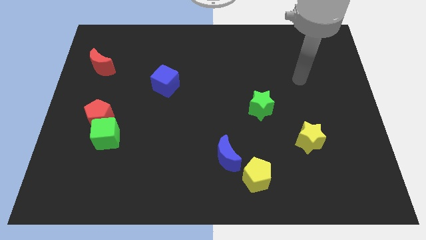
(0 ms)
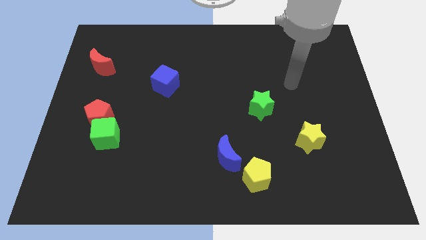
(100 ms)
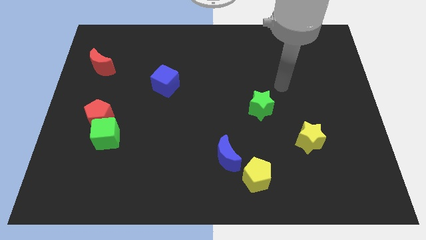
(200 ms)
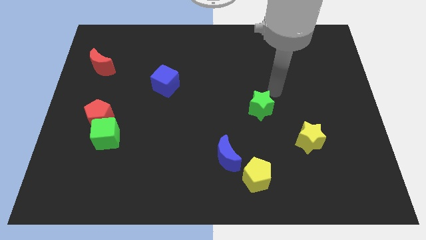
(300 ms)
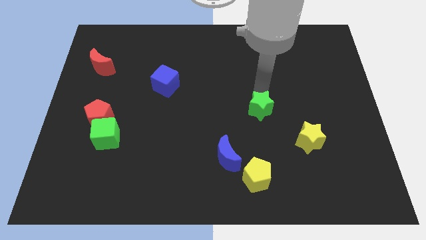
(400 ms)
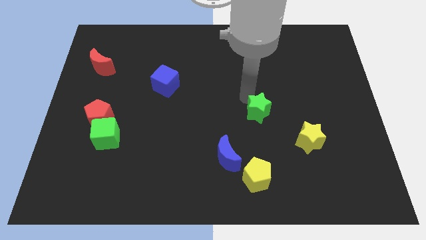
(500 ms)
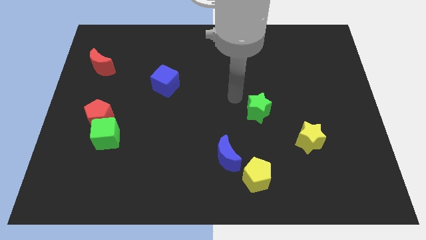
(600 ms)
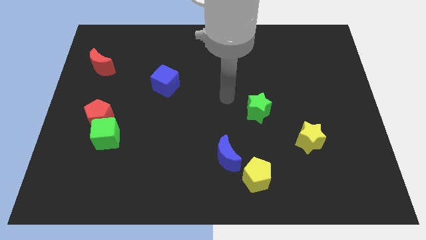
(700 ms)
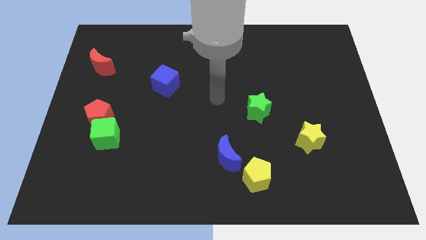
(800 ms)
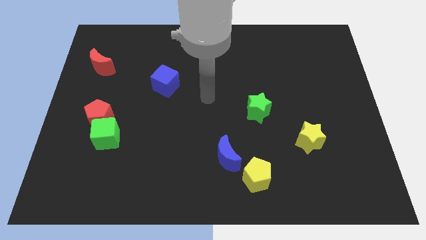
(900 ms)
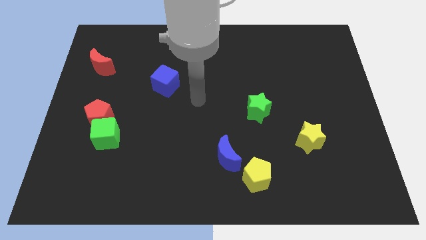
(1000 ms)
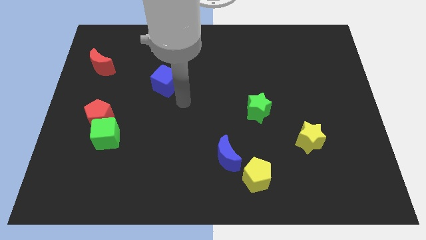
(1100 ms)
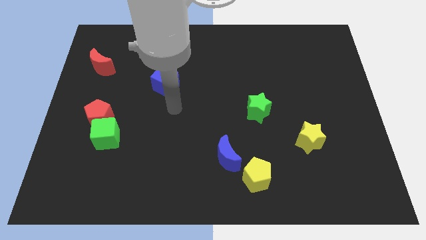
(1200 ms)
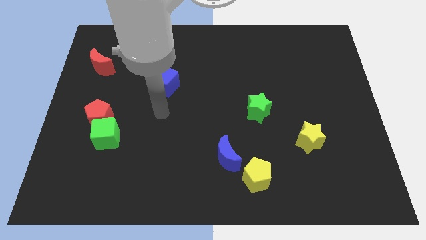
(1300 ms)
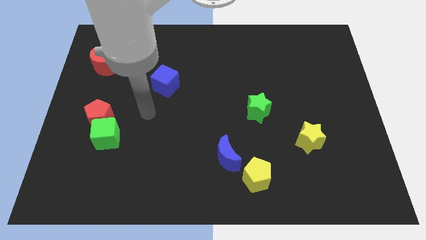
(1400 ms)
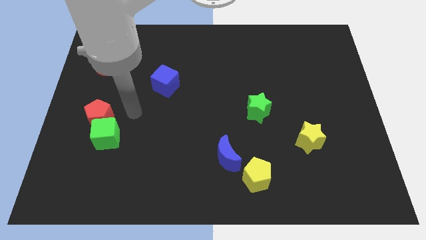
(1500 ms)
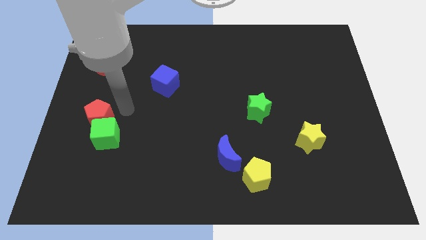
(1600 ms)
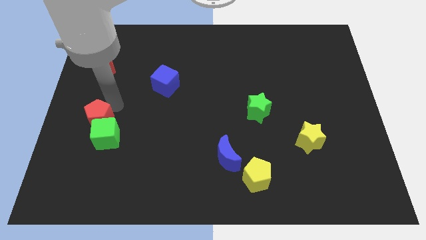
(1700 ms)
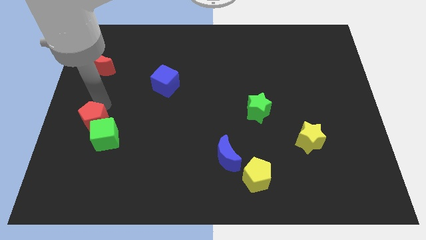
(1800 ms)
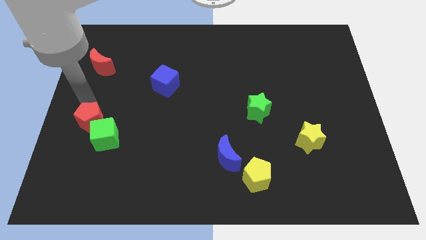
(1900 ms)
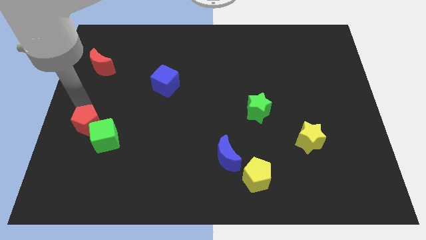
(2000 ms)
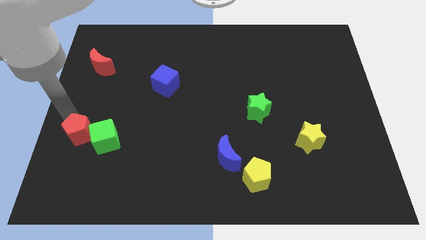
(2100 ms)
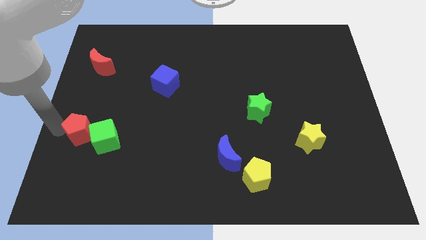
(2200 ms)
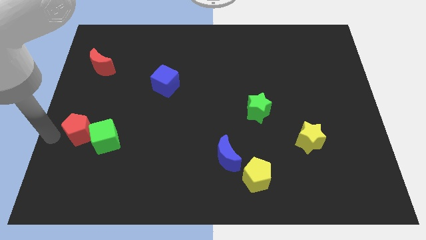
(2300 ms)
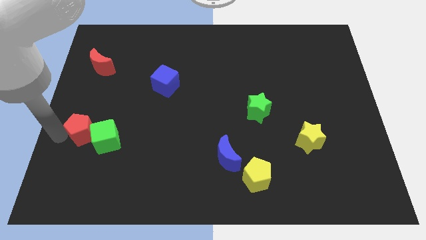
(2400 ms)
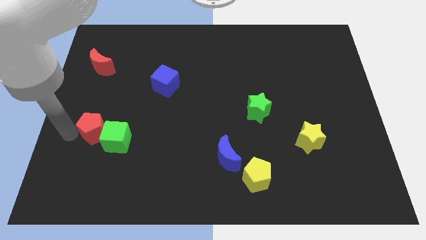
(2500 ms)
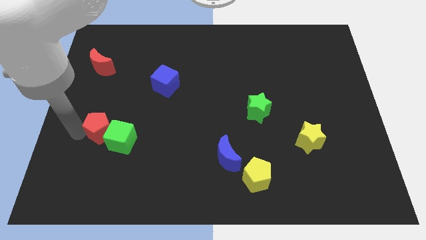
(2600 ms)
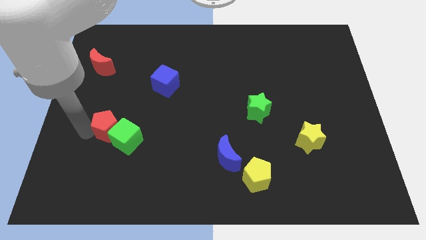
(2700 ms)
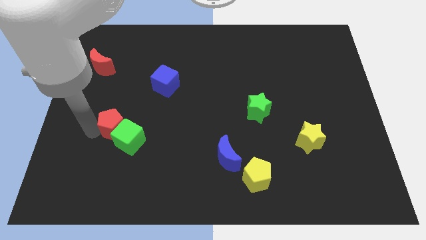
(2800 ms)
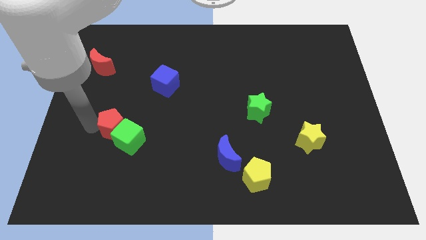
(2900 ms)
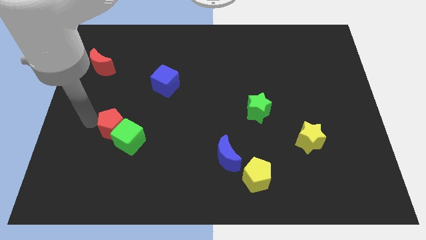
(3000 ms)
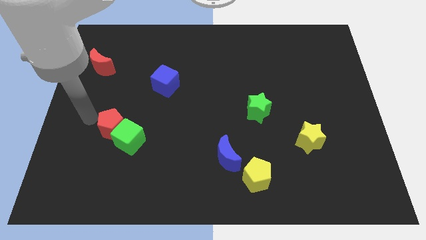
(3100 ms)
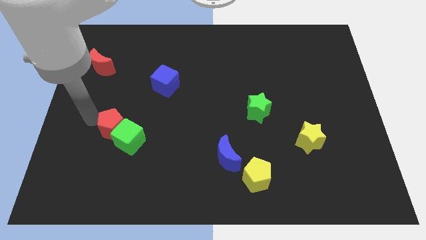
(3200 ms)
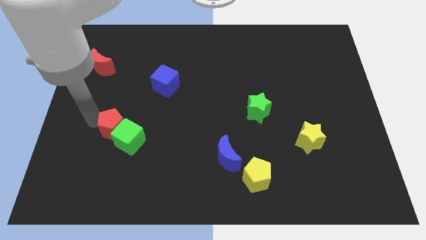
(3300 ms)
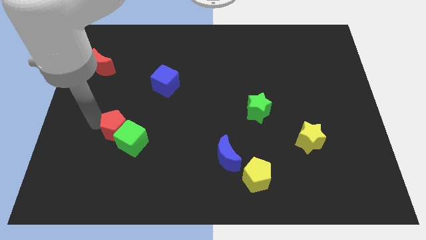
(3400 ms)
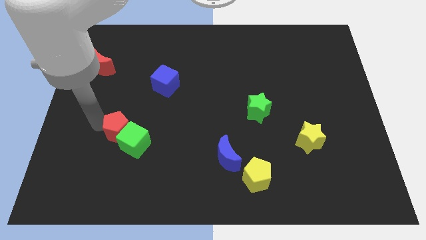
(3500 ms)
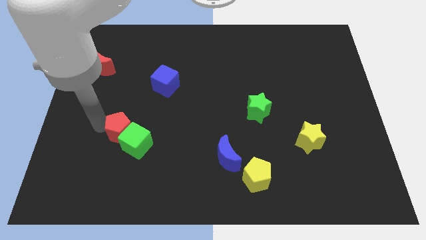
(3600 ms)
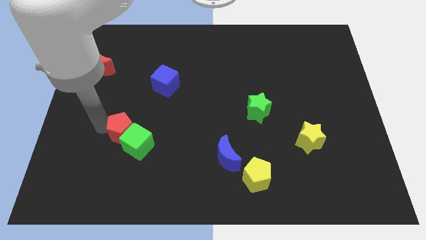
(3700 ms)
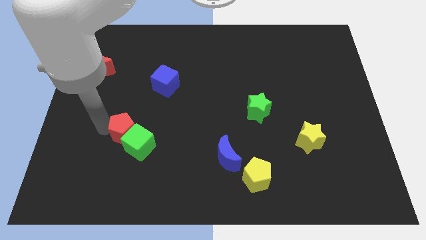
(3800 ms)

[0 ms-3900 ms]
move the red pentagon slightly down and to the right

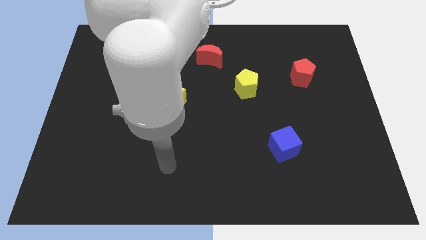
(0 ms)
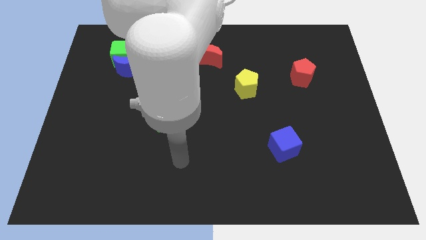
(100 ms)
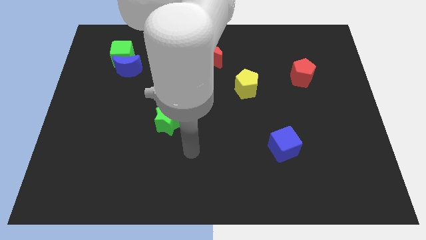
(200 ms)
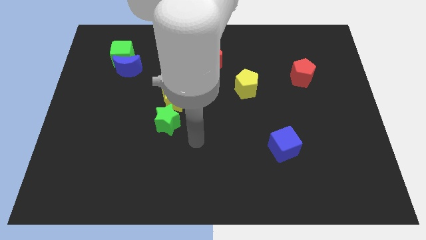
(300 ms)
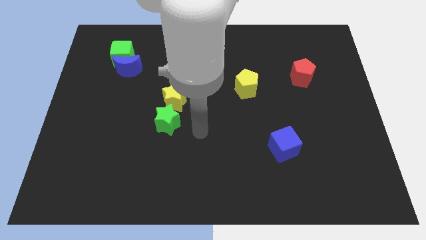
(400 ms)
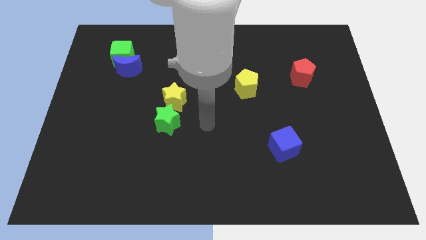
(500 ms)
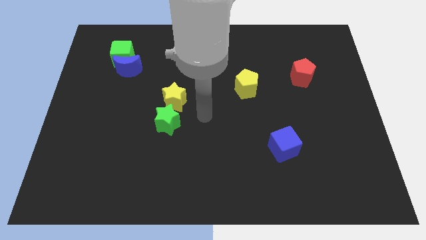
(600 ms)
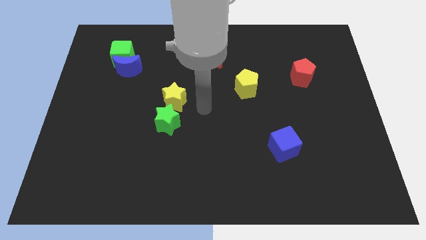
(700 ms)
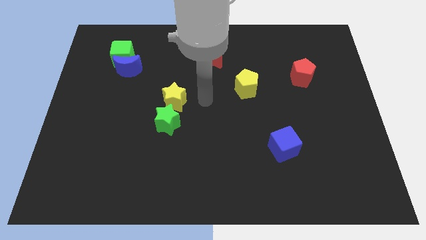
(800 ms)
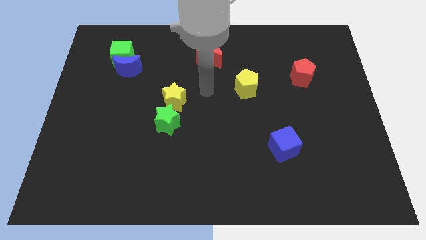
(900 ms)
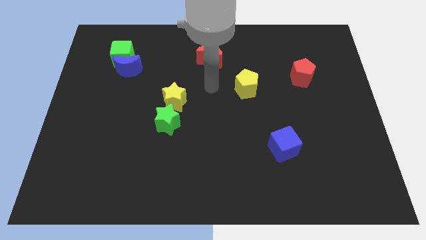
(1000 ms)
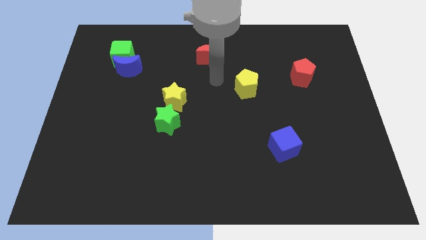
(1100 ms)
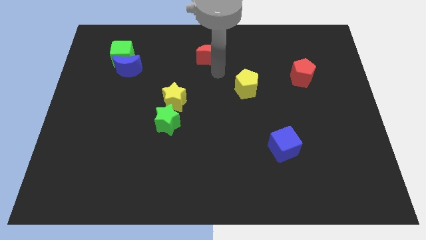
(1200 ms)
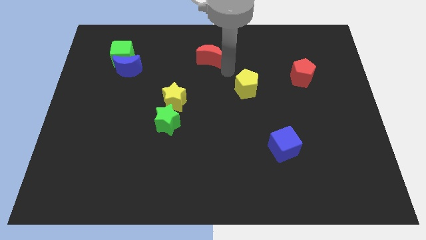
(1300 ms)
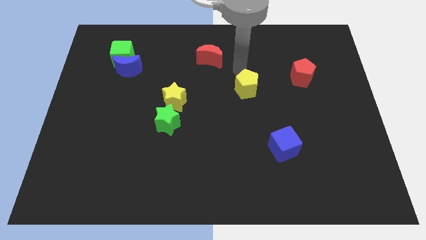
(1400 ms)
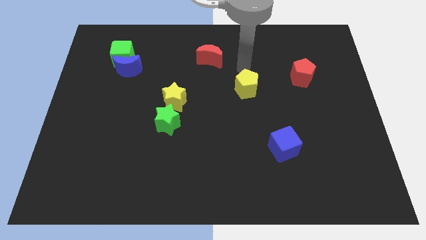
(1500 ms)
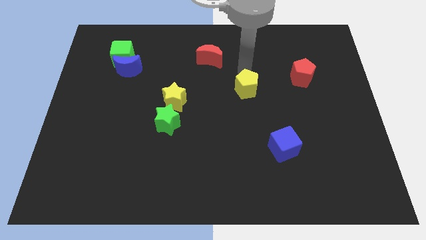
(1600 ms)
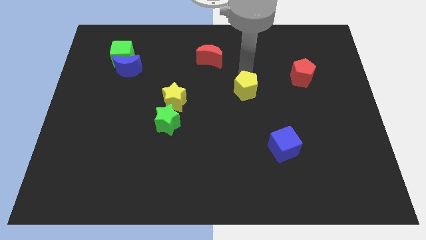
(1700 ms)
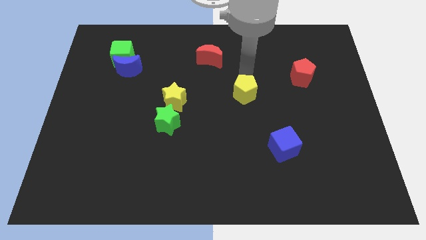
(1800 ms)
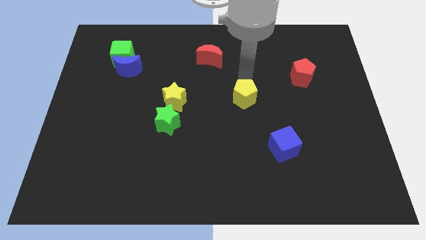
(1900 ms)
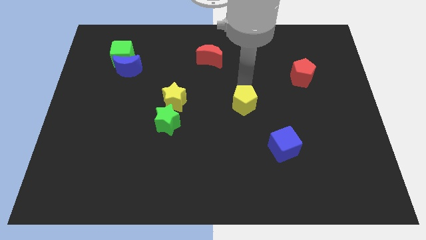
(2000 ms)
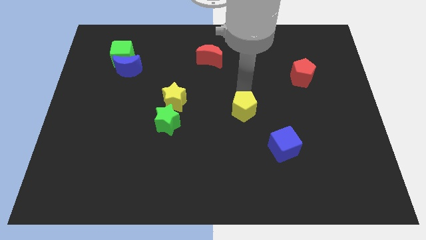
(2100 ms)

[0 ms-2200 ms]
move the yellow pentagon downwards a little bit

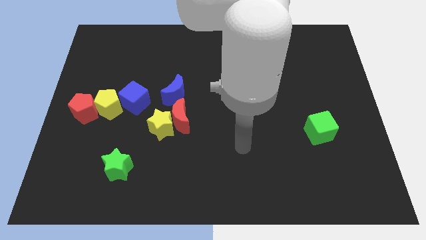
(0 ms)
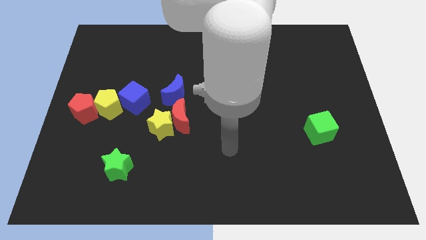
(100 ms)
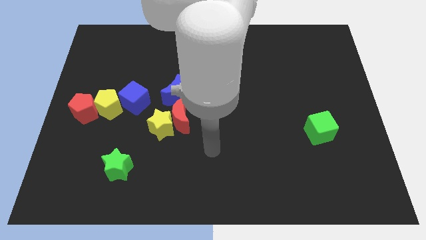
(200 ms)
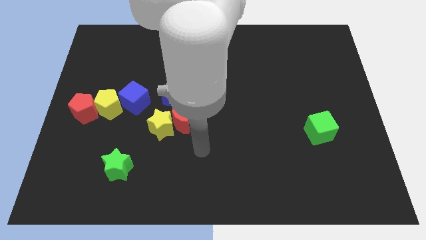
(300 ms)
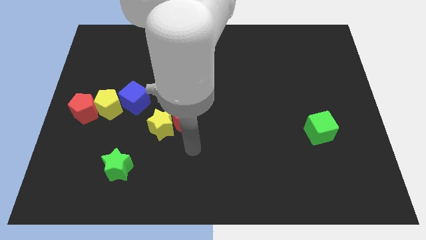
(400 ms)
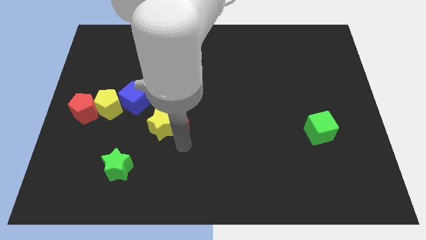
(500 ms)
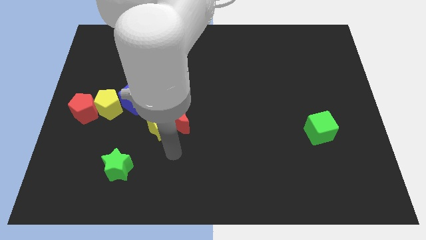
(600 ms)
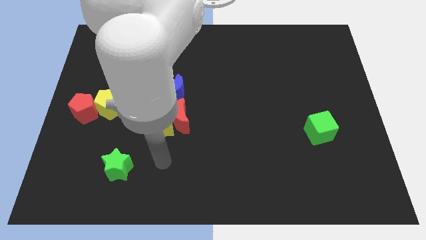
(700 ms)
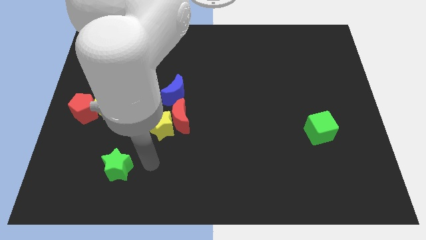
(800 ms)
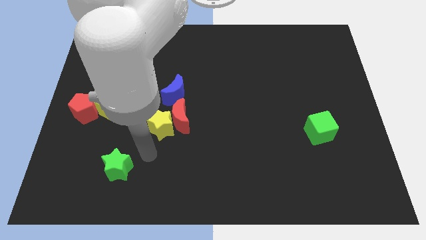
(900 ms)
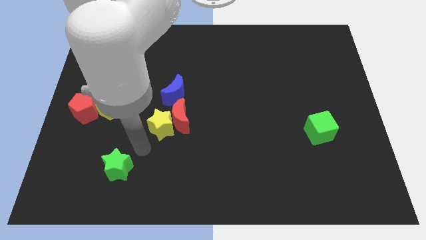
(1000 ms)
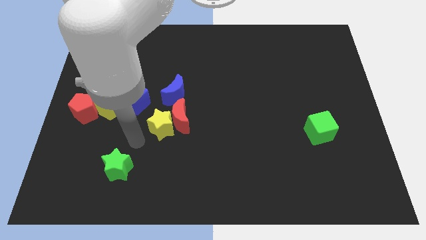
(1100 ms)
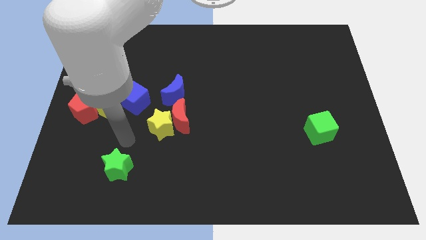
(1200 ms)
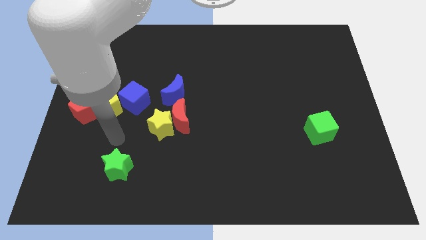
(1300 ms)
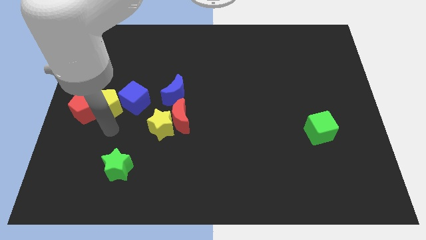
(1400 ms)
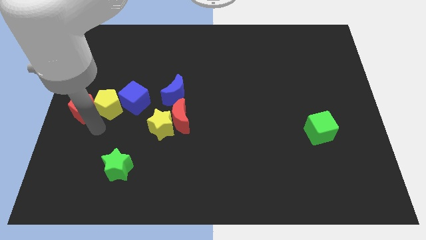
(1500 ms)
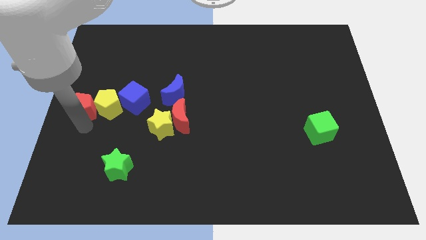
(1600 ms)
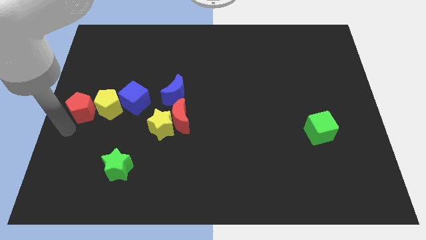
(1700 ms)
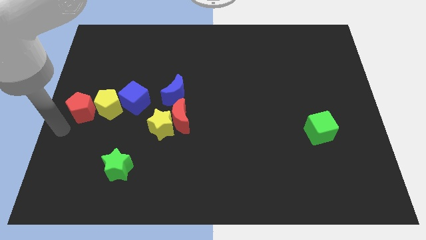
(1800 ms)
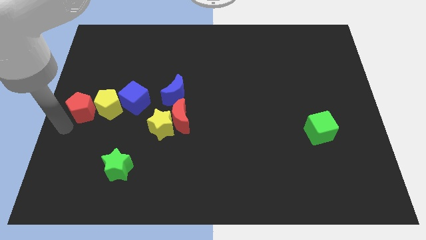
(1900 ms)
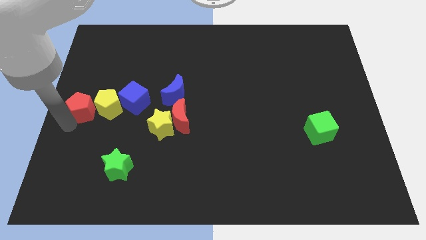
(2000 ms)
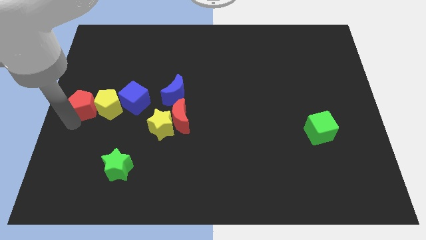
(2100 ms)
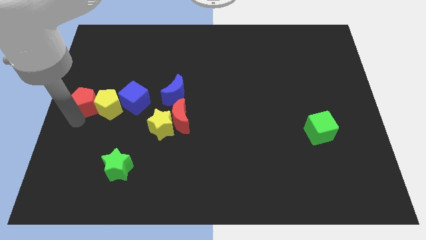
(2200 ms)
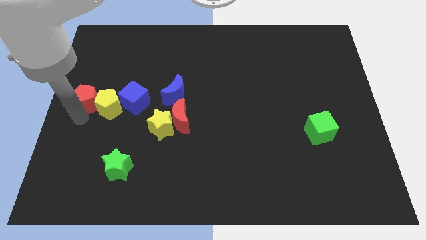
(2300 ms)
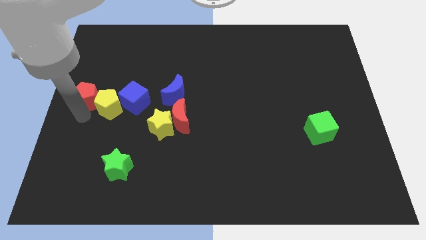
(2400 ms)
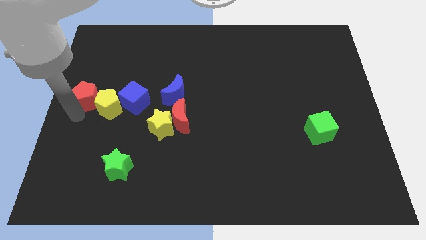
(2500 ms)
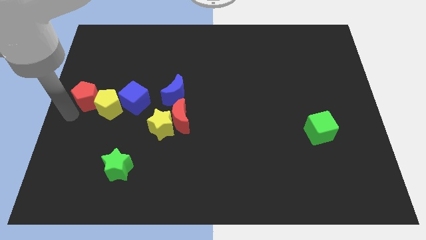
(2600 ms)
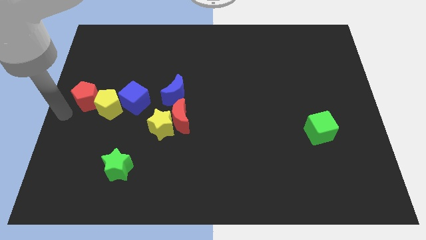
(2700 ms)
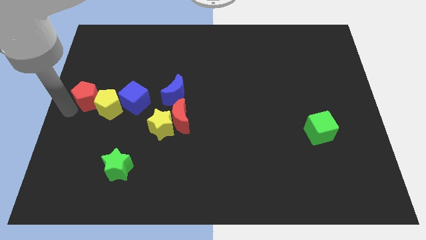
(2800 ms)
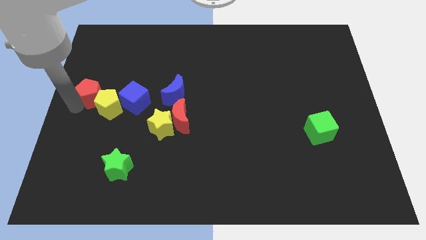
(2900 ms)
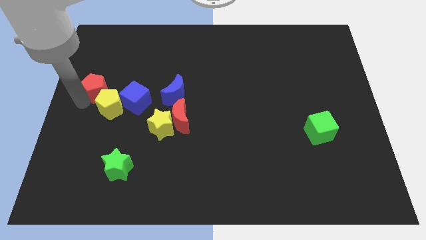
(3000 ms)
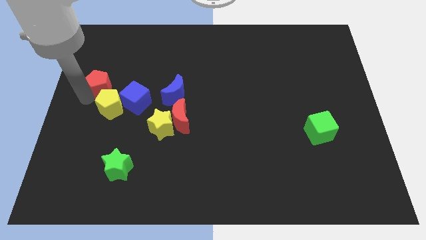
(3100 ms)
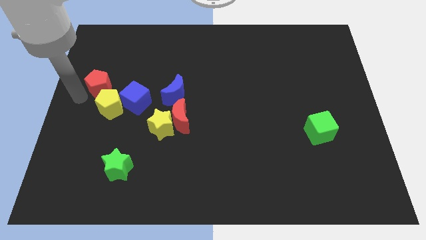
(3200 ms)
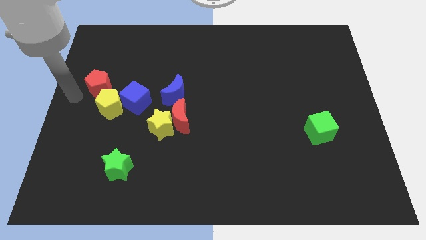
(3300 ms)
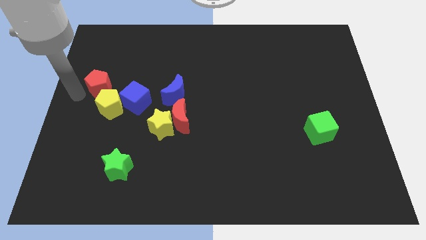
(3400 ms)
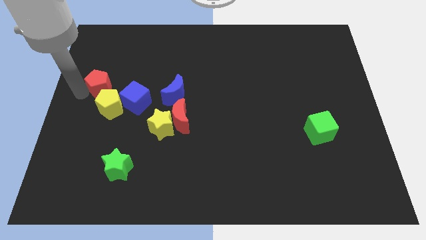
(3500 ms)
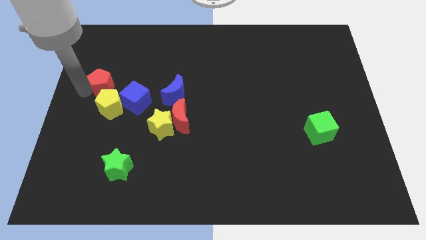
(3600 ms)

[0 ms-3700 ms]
slightly push the red pentagon upwards and then to the right
